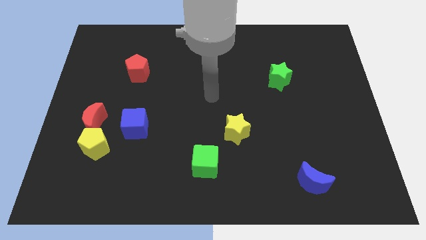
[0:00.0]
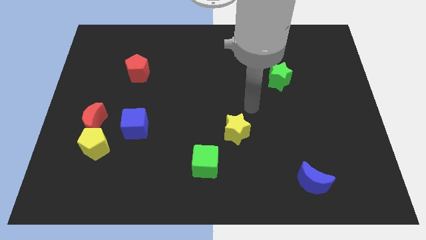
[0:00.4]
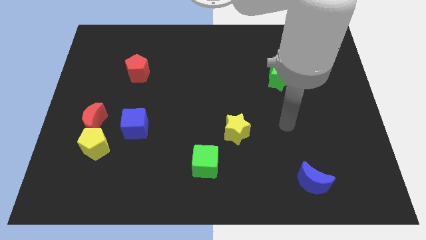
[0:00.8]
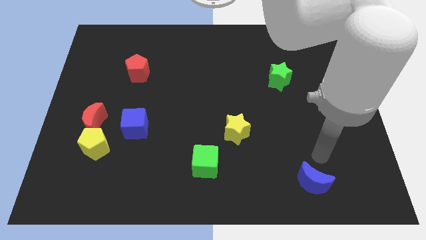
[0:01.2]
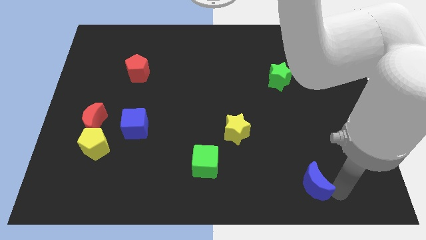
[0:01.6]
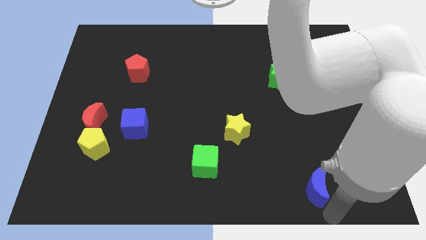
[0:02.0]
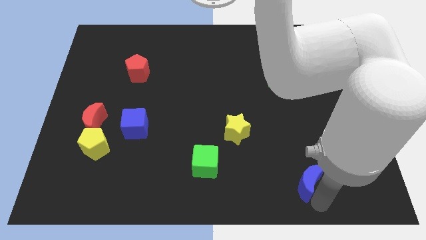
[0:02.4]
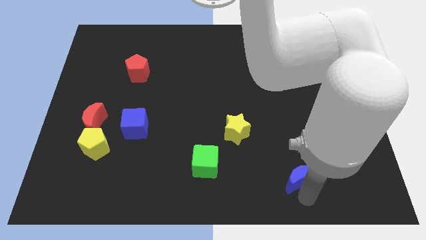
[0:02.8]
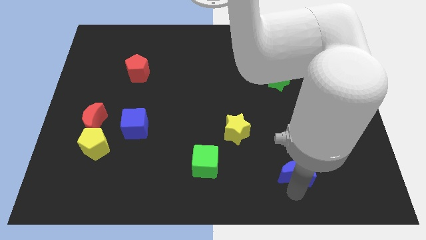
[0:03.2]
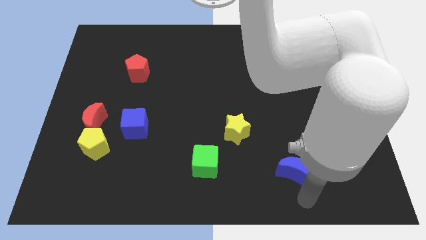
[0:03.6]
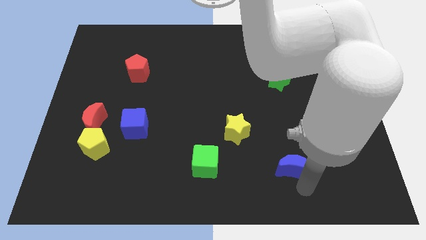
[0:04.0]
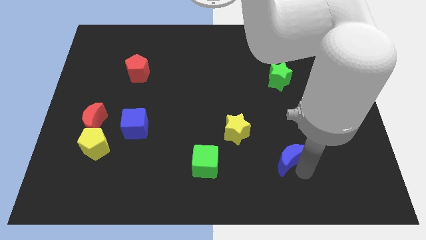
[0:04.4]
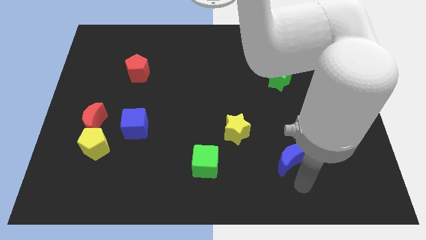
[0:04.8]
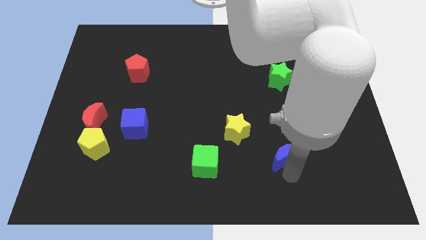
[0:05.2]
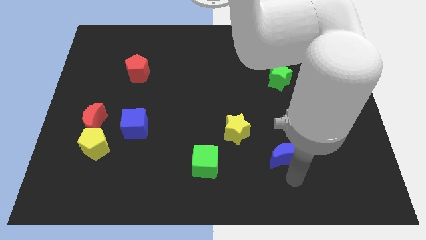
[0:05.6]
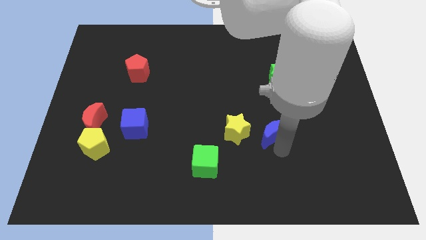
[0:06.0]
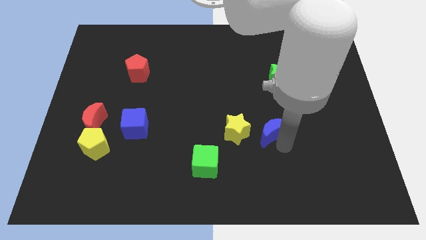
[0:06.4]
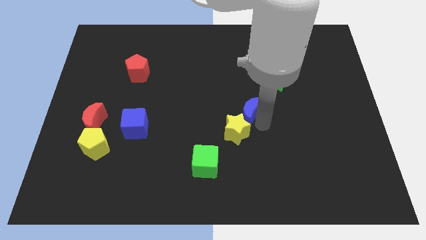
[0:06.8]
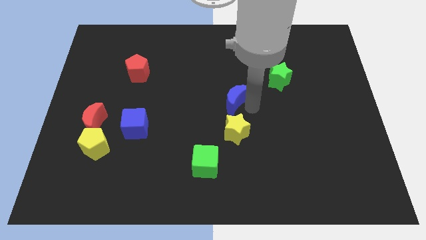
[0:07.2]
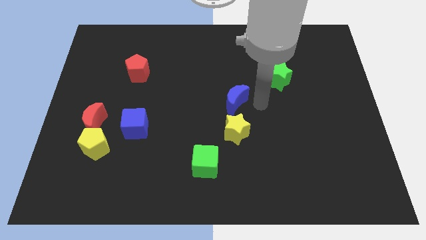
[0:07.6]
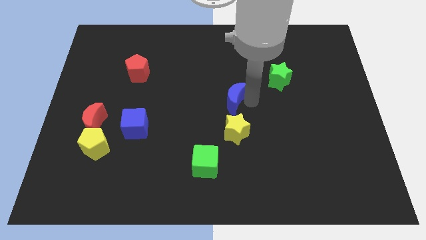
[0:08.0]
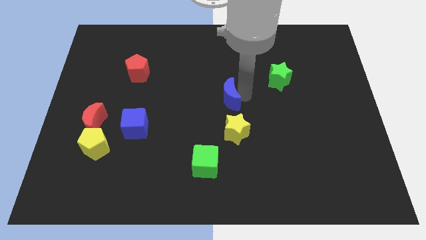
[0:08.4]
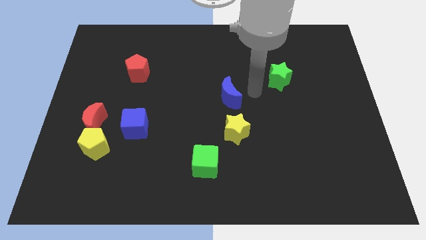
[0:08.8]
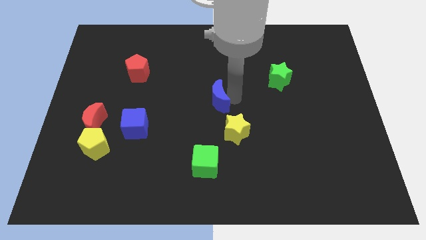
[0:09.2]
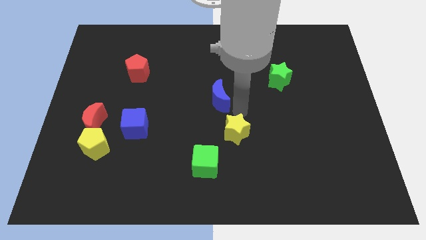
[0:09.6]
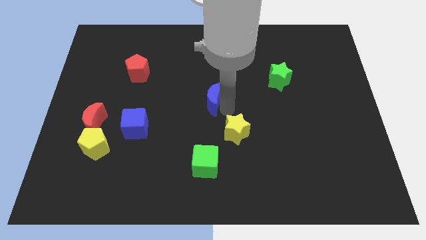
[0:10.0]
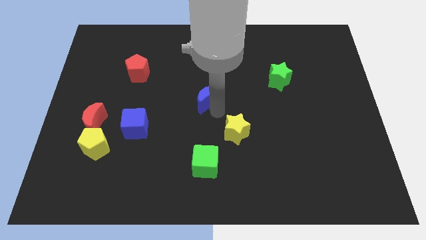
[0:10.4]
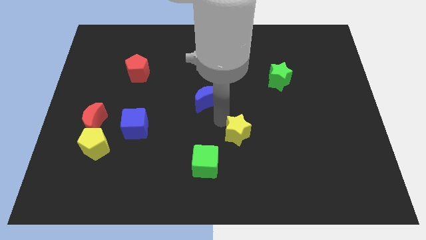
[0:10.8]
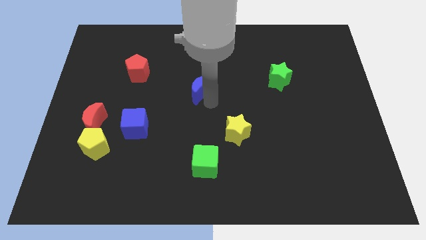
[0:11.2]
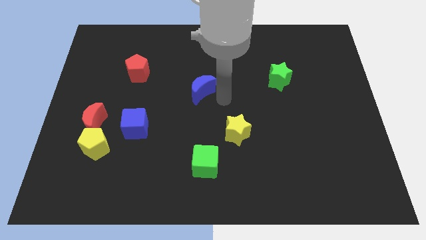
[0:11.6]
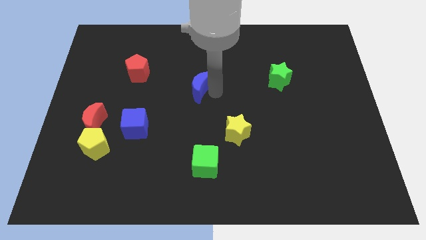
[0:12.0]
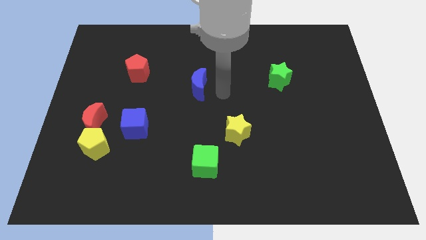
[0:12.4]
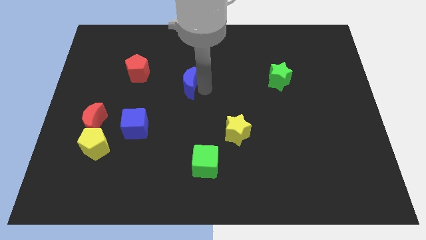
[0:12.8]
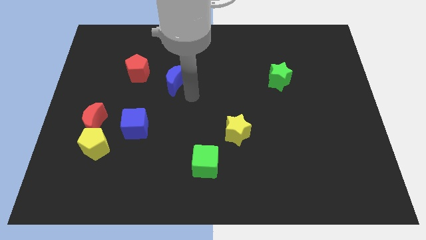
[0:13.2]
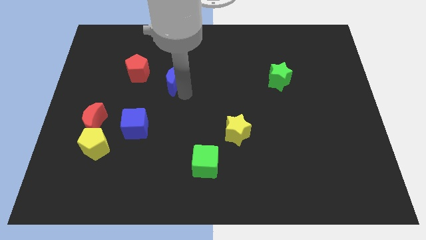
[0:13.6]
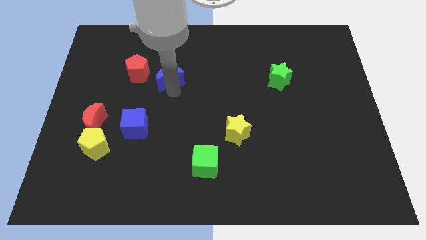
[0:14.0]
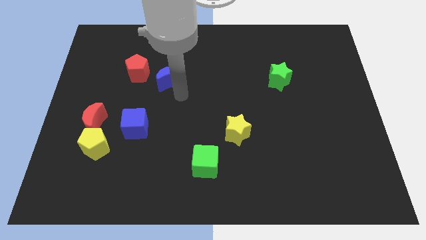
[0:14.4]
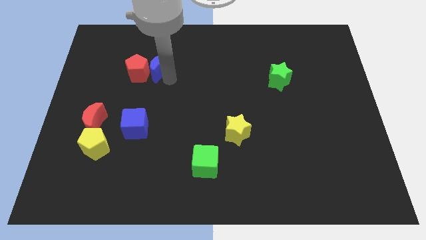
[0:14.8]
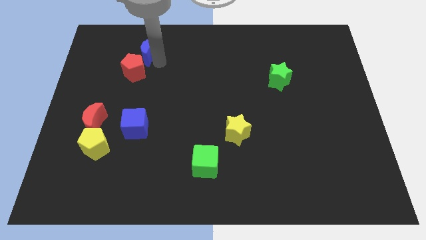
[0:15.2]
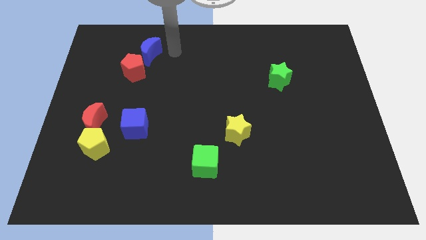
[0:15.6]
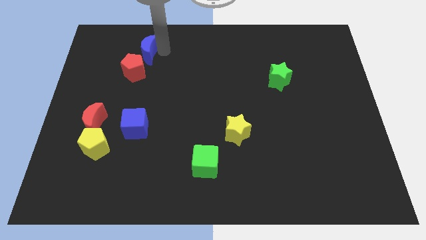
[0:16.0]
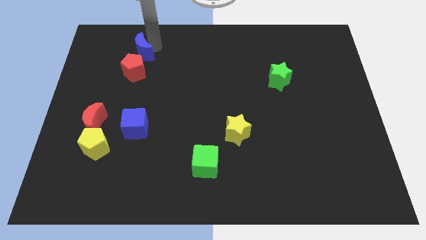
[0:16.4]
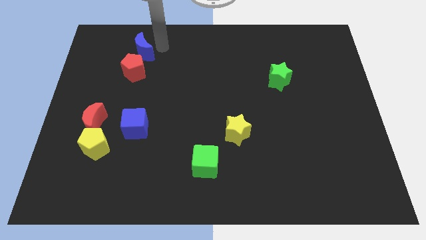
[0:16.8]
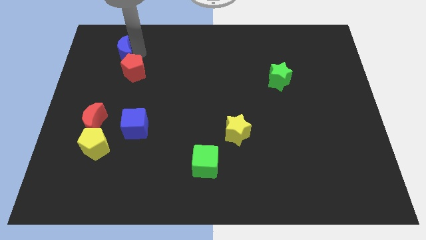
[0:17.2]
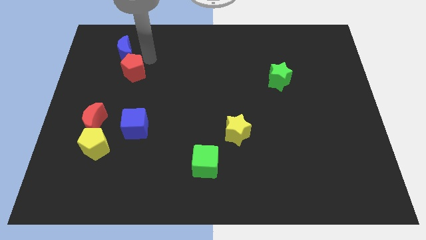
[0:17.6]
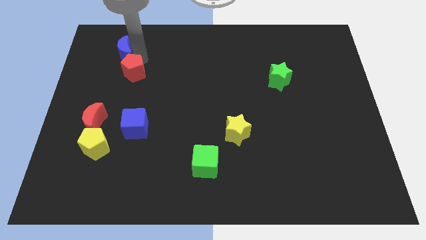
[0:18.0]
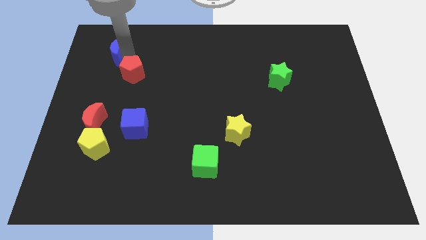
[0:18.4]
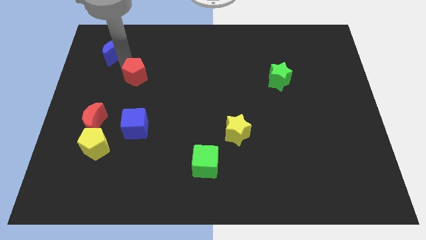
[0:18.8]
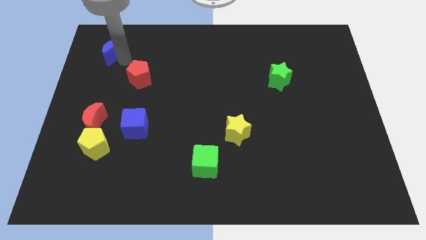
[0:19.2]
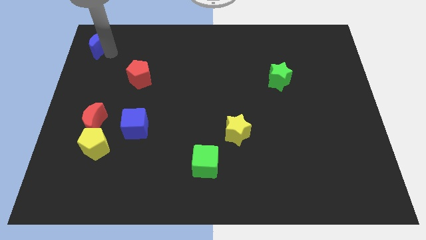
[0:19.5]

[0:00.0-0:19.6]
move the blue moon to the top left

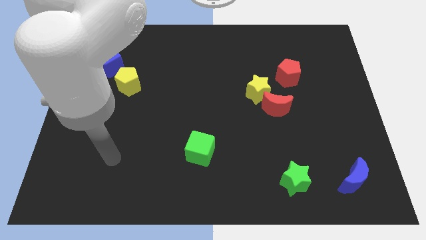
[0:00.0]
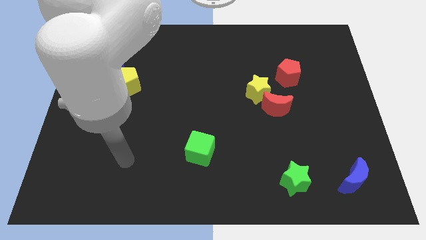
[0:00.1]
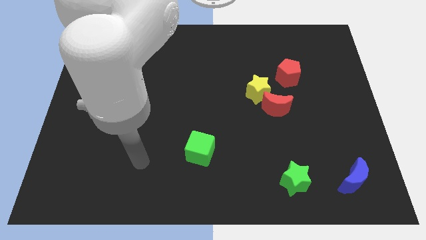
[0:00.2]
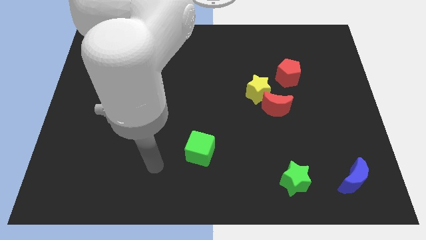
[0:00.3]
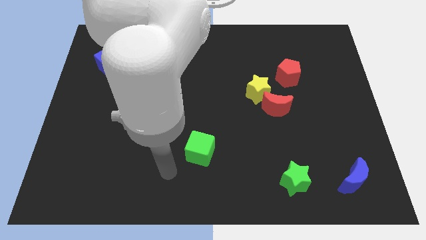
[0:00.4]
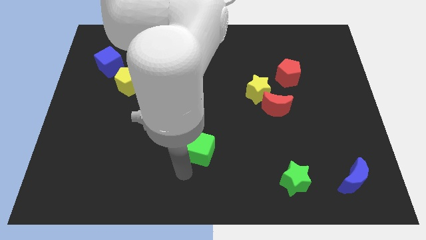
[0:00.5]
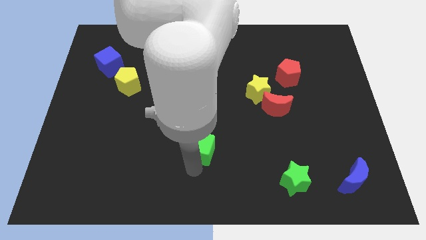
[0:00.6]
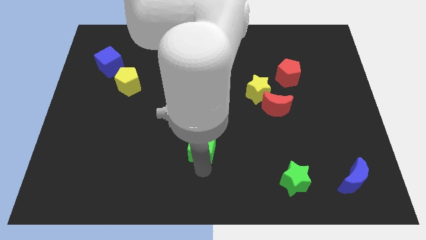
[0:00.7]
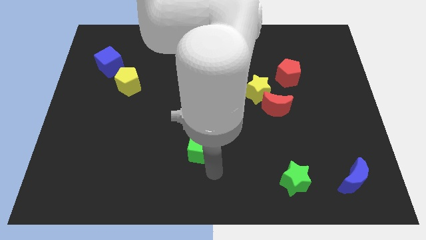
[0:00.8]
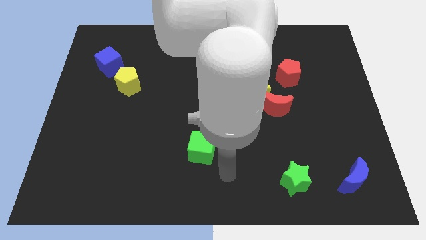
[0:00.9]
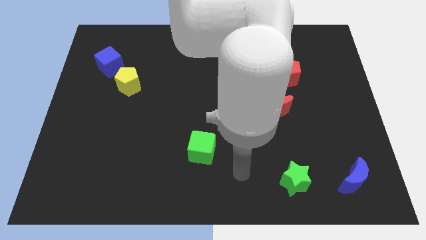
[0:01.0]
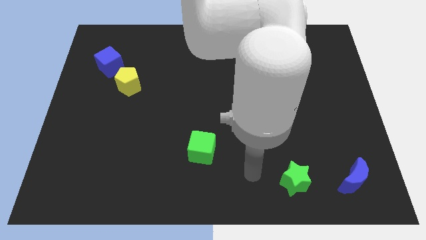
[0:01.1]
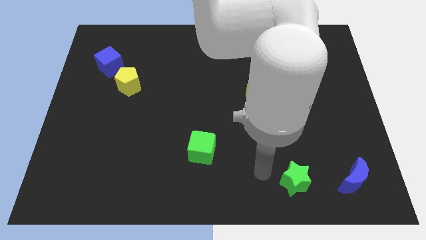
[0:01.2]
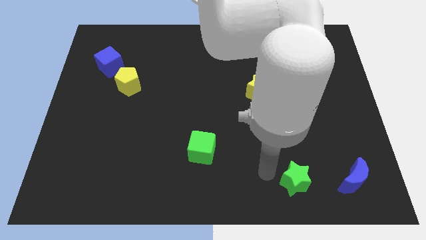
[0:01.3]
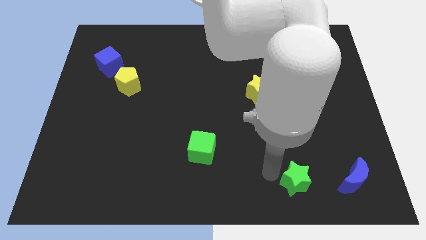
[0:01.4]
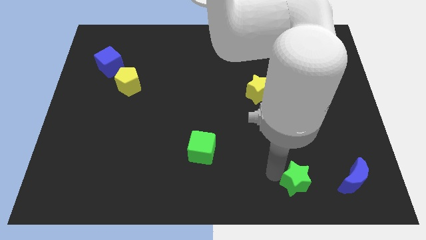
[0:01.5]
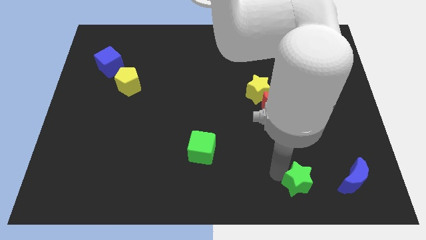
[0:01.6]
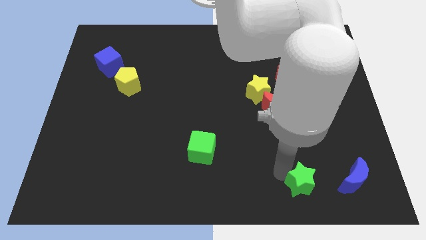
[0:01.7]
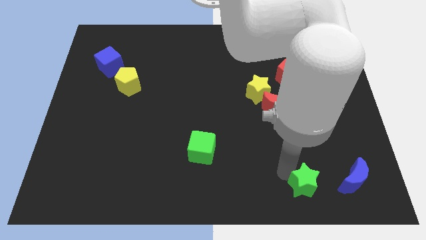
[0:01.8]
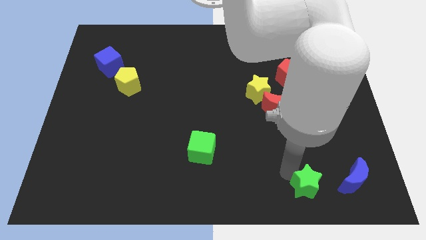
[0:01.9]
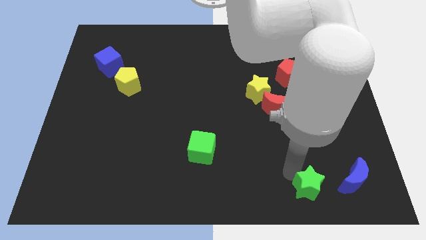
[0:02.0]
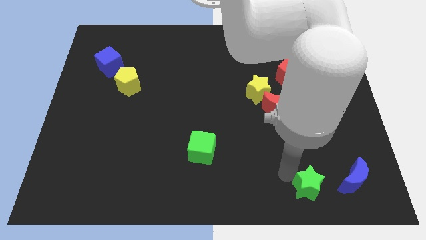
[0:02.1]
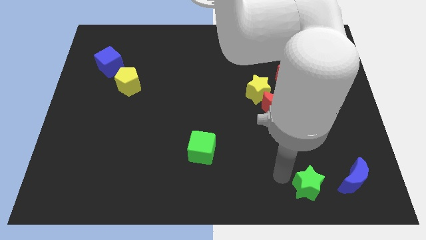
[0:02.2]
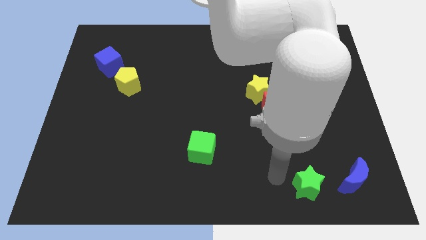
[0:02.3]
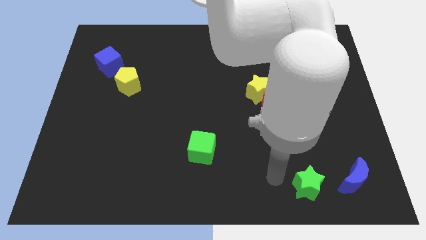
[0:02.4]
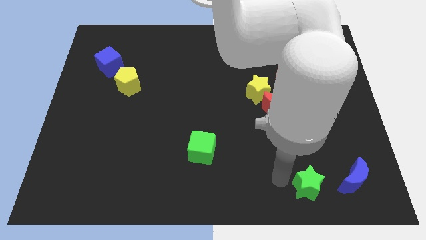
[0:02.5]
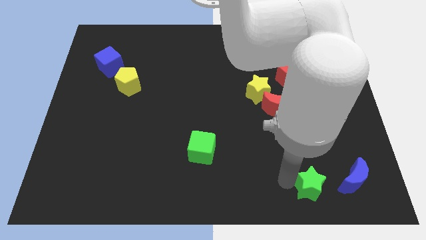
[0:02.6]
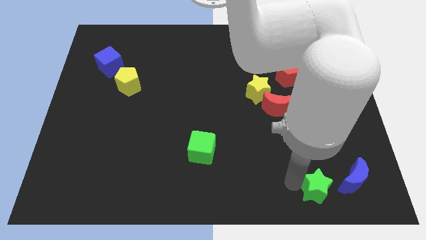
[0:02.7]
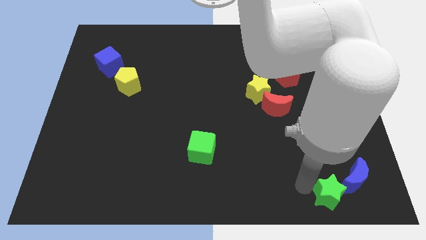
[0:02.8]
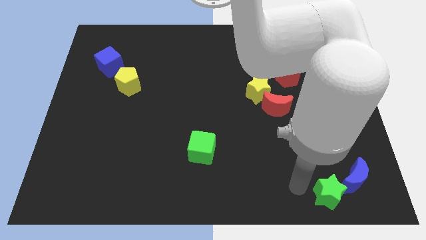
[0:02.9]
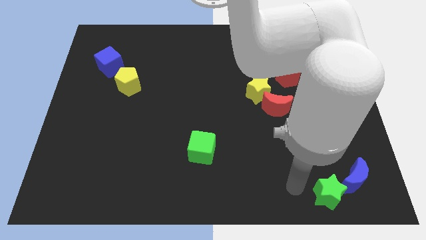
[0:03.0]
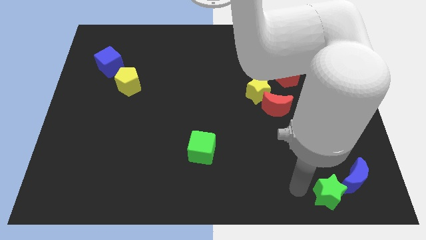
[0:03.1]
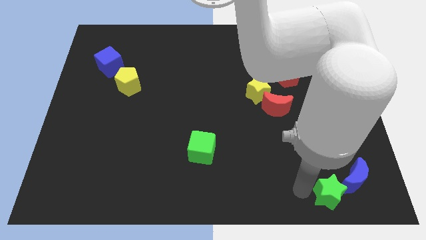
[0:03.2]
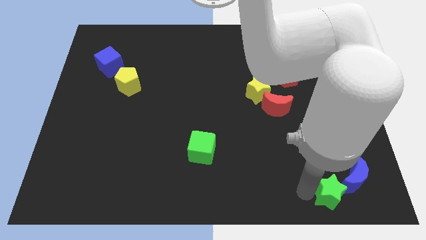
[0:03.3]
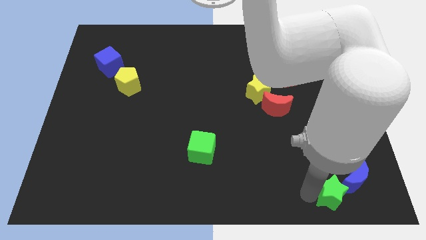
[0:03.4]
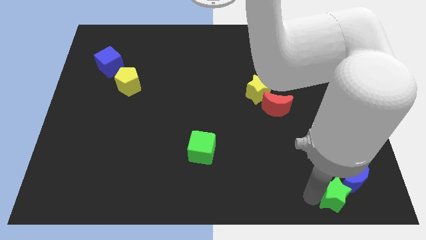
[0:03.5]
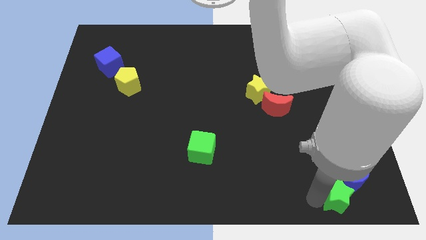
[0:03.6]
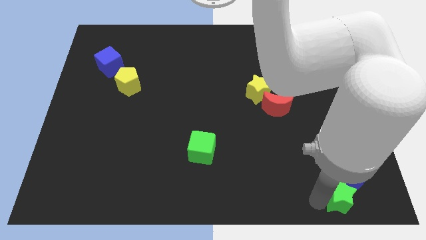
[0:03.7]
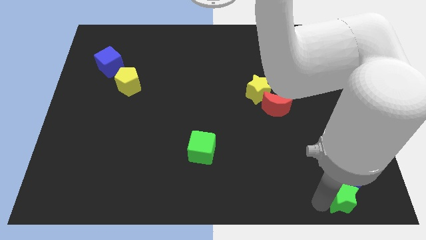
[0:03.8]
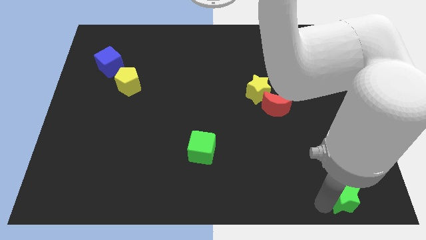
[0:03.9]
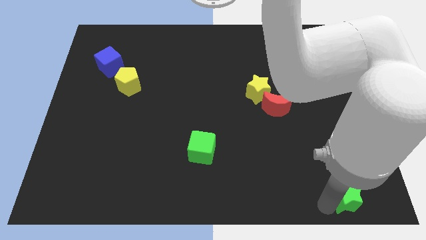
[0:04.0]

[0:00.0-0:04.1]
move the green star to the bottom right corner
